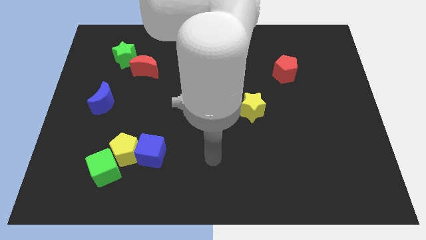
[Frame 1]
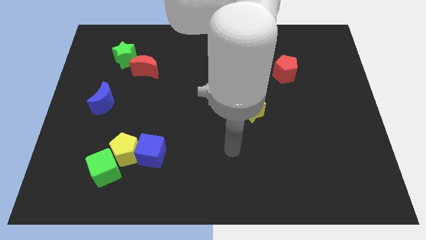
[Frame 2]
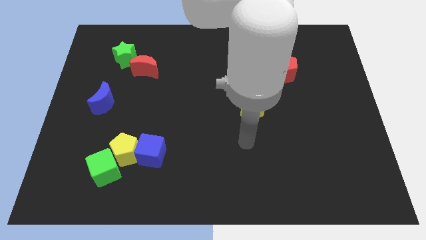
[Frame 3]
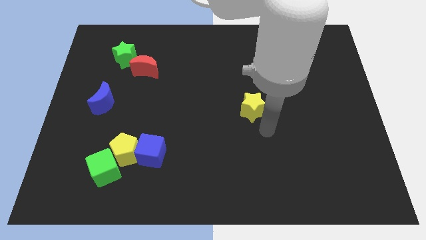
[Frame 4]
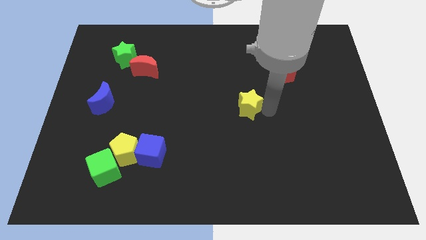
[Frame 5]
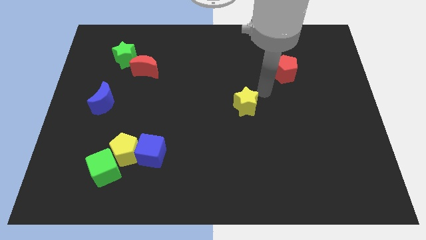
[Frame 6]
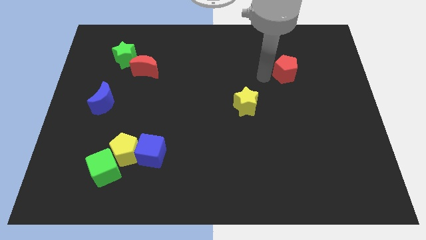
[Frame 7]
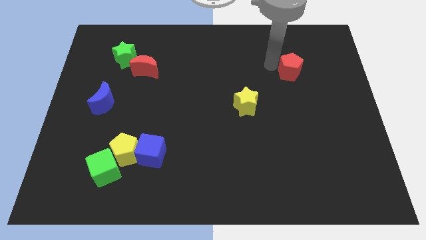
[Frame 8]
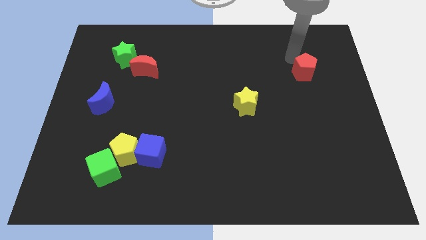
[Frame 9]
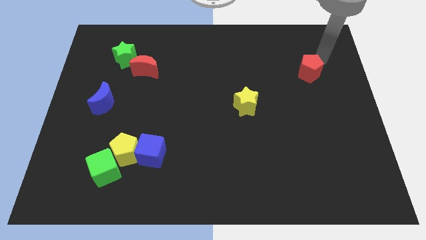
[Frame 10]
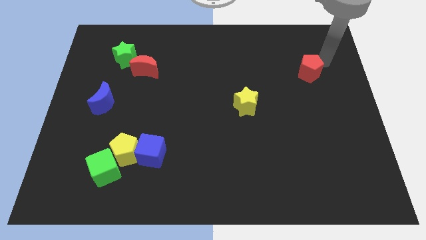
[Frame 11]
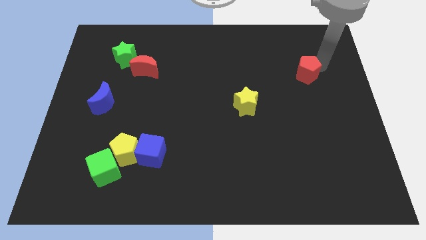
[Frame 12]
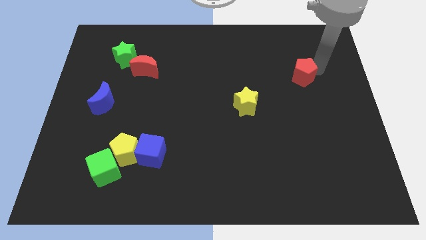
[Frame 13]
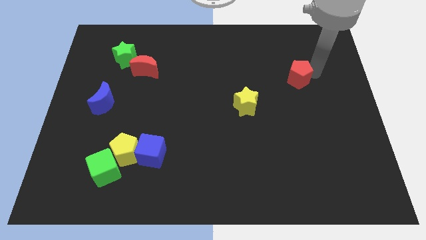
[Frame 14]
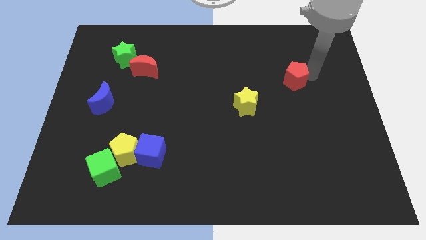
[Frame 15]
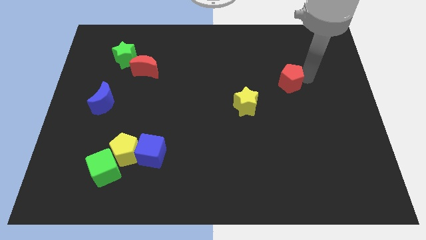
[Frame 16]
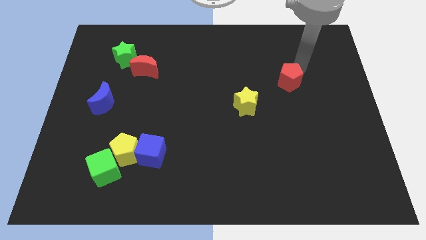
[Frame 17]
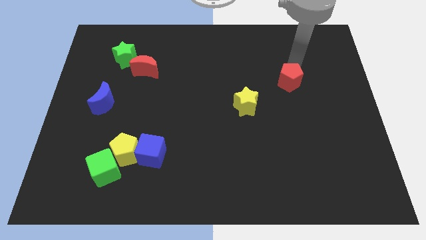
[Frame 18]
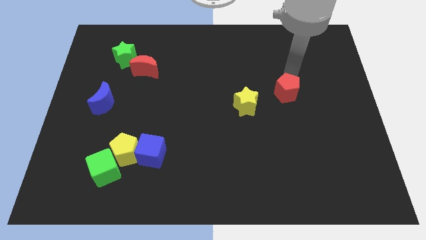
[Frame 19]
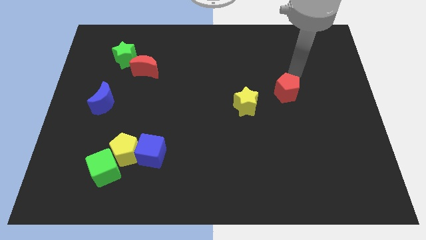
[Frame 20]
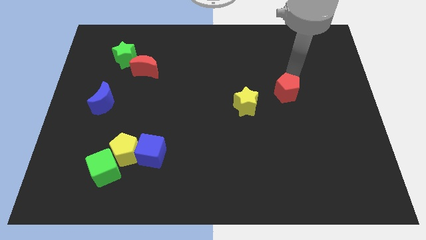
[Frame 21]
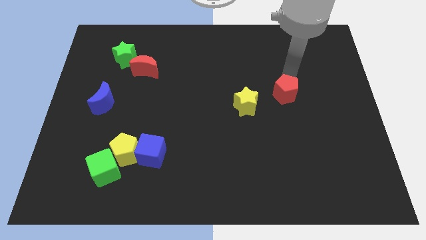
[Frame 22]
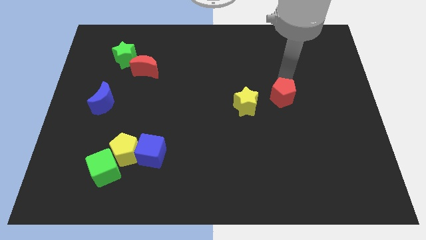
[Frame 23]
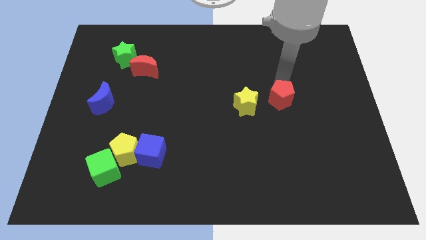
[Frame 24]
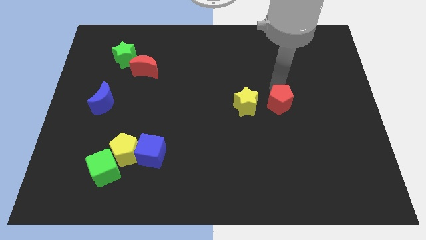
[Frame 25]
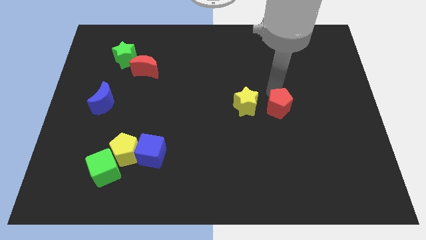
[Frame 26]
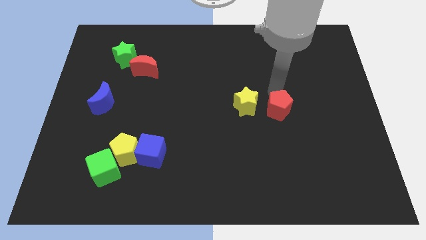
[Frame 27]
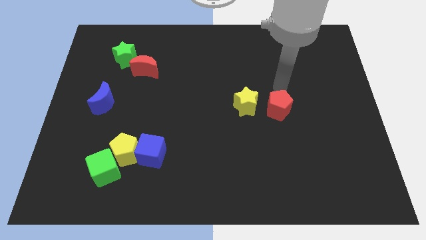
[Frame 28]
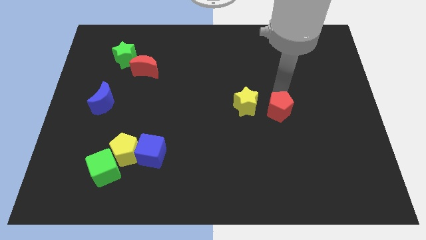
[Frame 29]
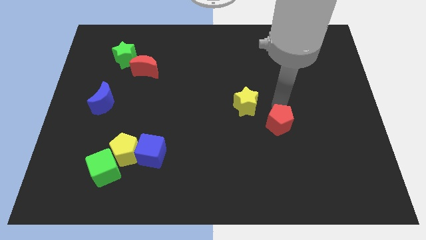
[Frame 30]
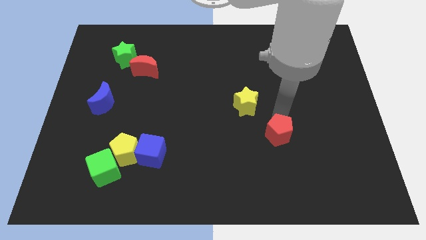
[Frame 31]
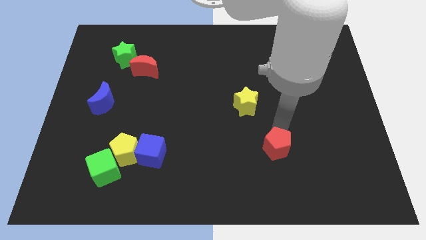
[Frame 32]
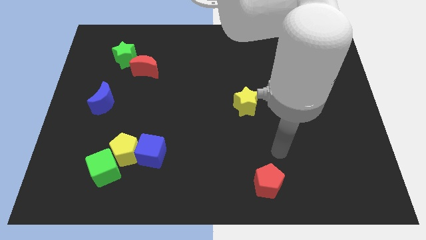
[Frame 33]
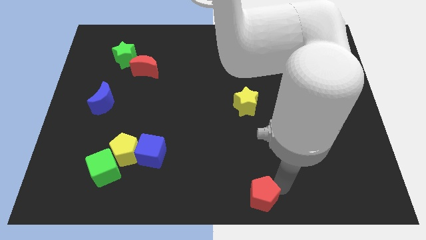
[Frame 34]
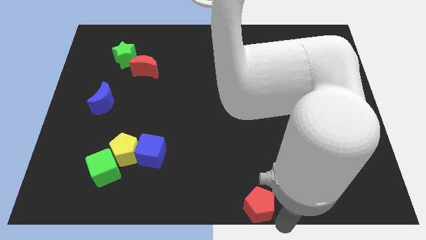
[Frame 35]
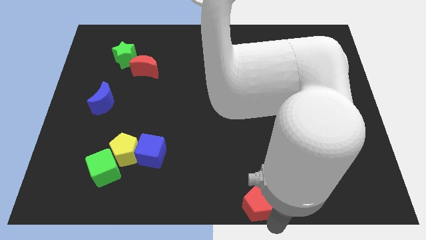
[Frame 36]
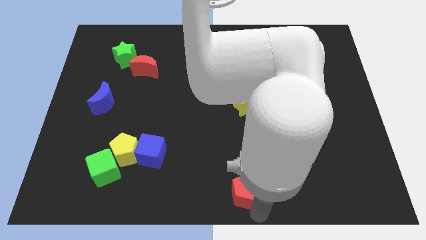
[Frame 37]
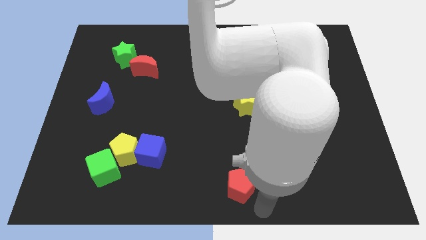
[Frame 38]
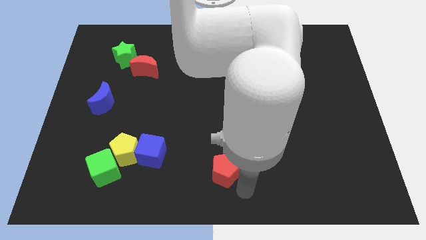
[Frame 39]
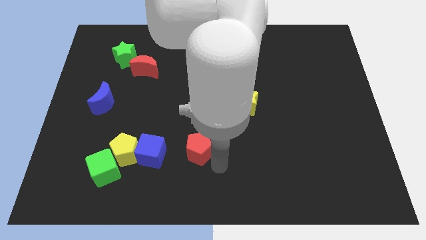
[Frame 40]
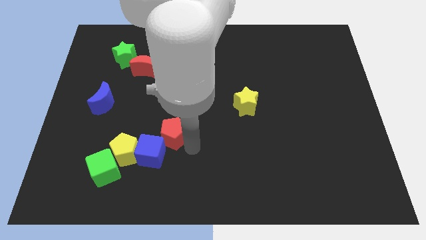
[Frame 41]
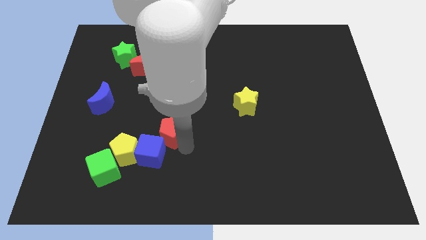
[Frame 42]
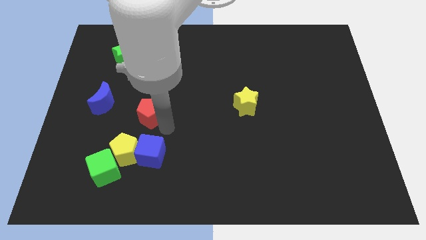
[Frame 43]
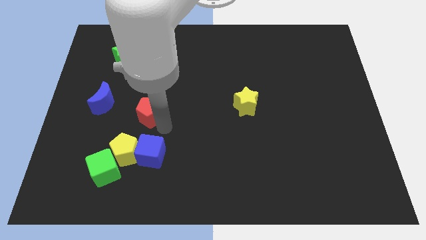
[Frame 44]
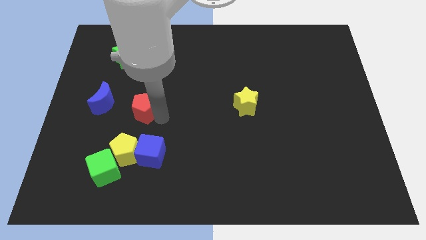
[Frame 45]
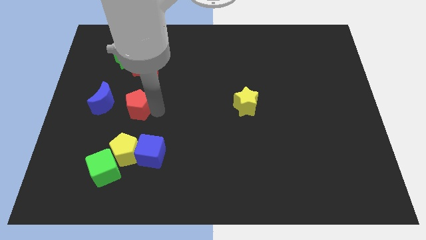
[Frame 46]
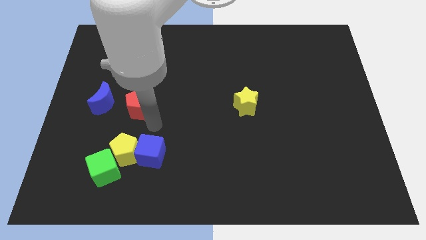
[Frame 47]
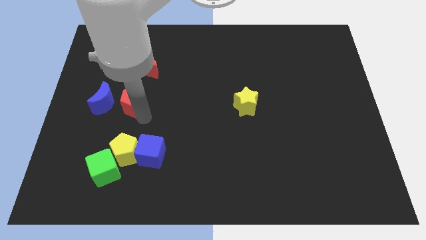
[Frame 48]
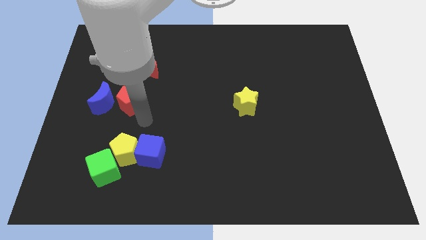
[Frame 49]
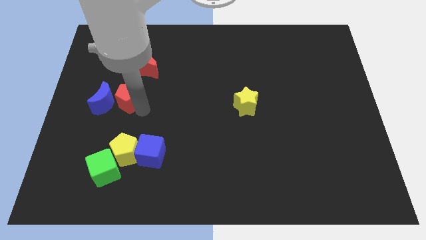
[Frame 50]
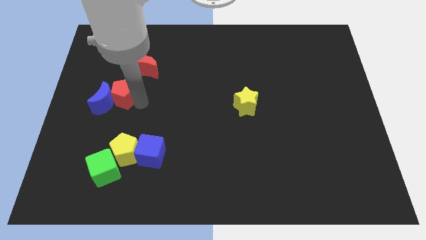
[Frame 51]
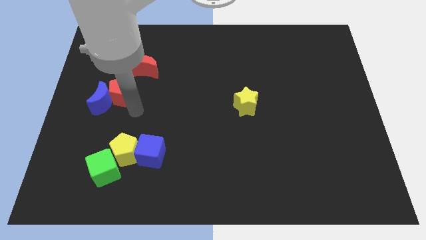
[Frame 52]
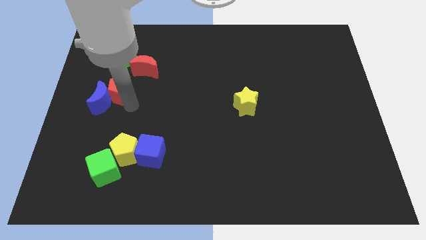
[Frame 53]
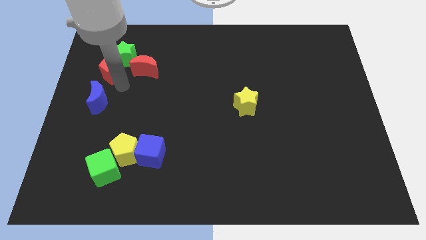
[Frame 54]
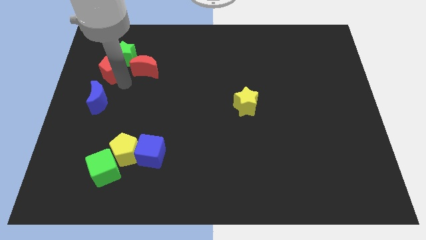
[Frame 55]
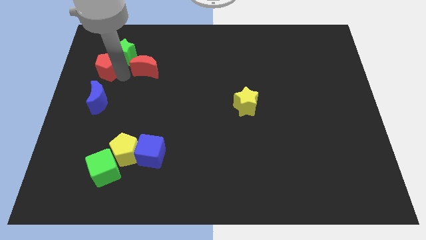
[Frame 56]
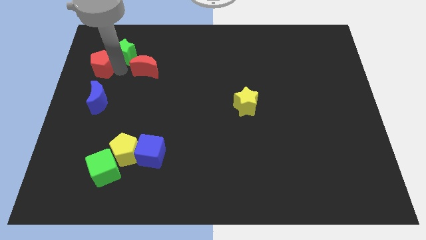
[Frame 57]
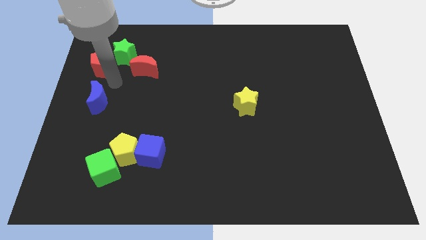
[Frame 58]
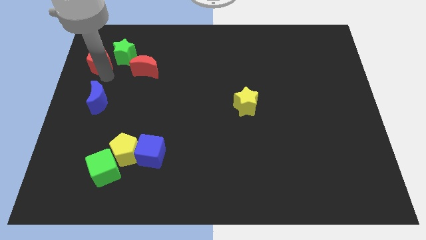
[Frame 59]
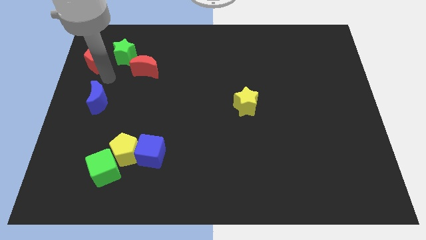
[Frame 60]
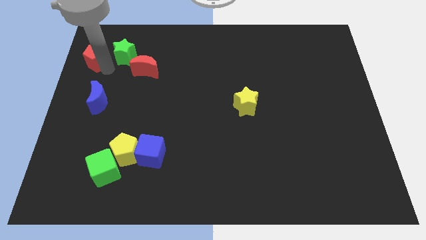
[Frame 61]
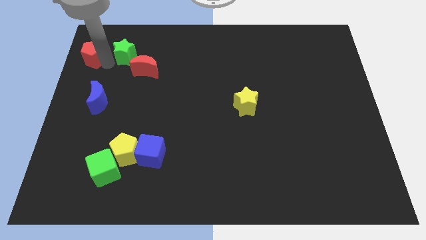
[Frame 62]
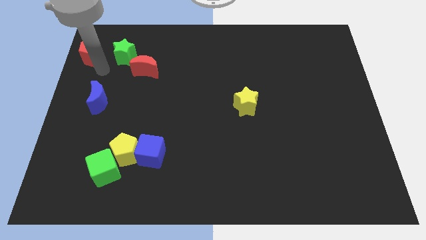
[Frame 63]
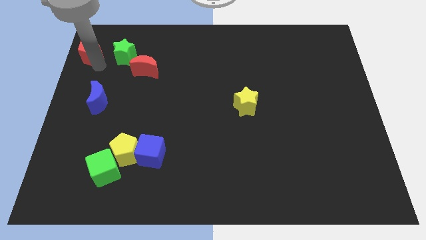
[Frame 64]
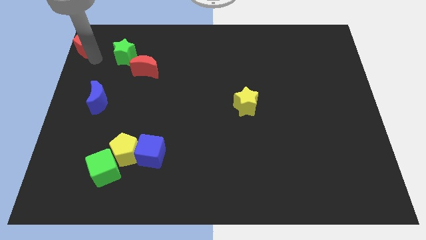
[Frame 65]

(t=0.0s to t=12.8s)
push the red pentagon to the top left

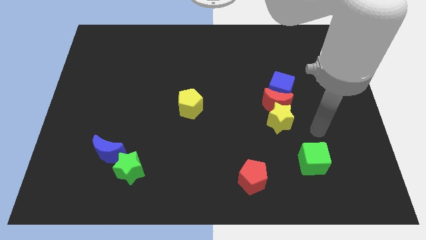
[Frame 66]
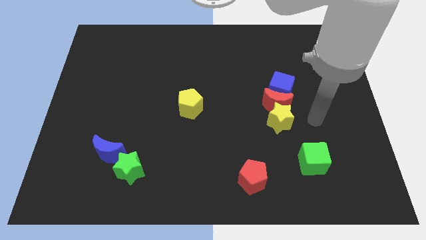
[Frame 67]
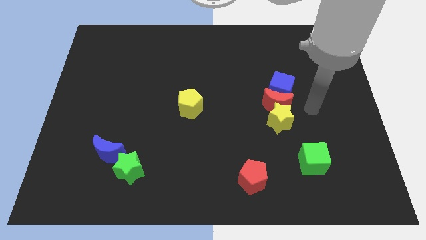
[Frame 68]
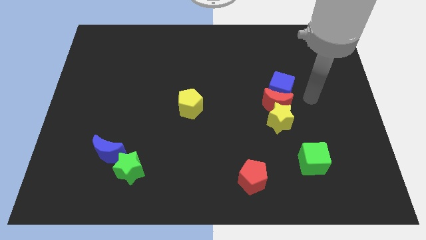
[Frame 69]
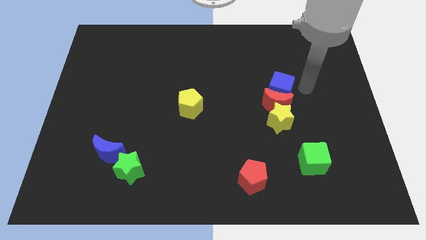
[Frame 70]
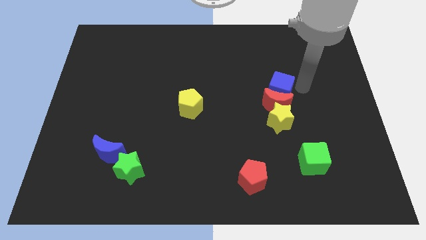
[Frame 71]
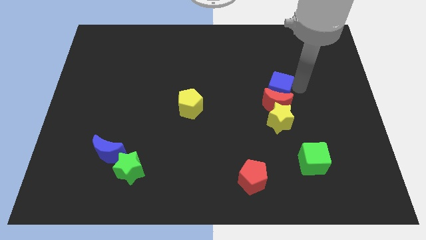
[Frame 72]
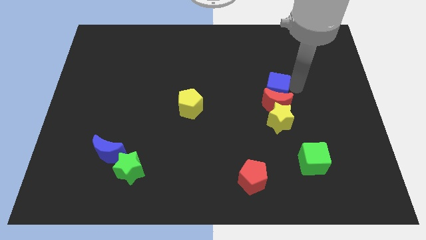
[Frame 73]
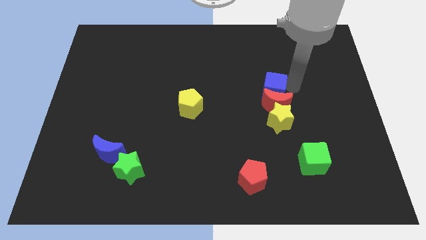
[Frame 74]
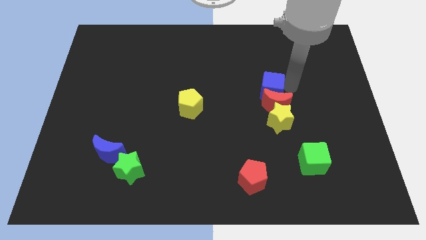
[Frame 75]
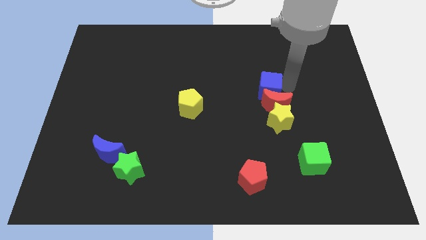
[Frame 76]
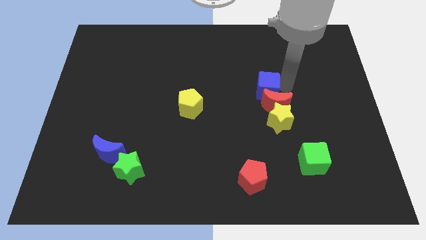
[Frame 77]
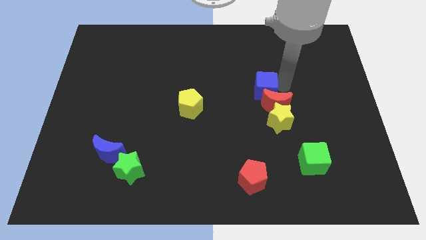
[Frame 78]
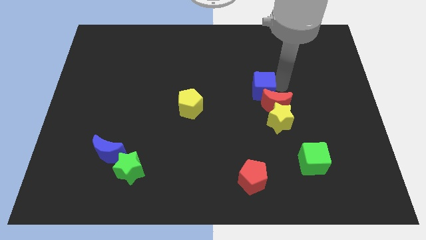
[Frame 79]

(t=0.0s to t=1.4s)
move the blue cube to the middle of the board
